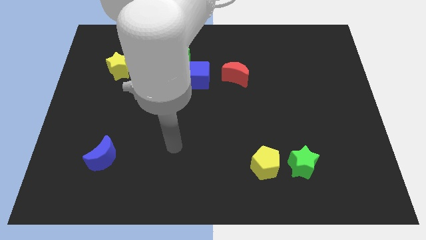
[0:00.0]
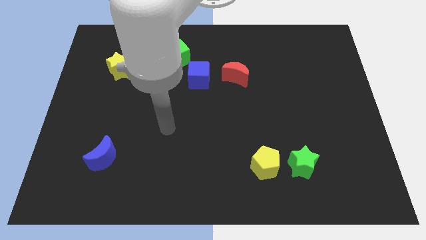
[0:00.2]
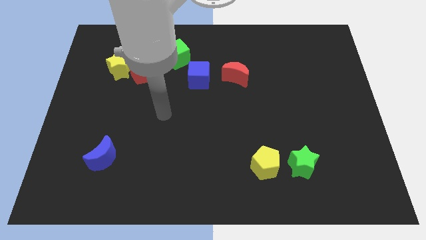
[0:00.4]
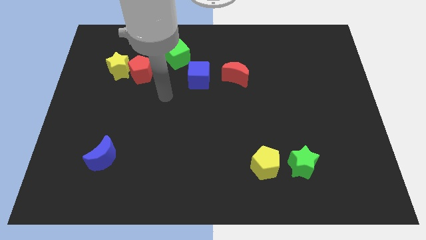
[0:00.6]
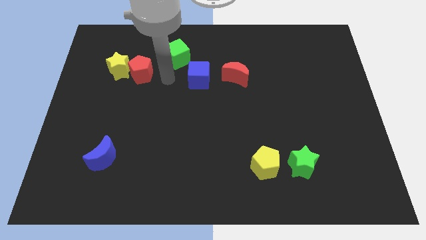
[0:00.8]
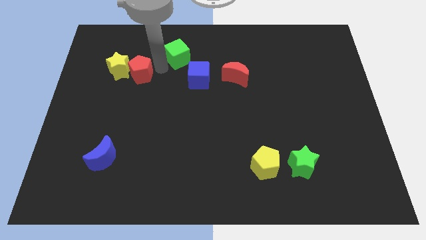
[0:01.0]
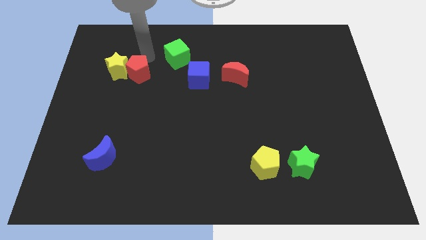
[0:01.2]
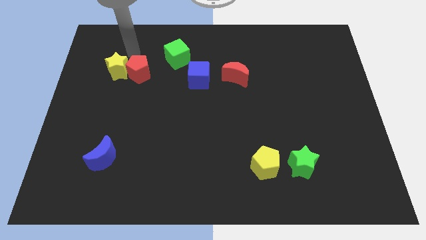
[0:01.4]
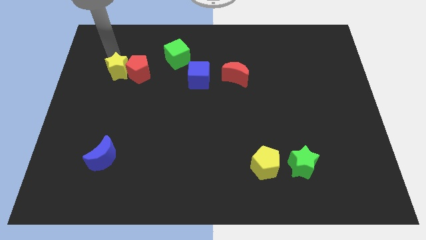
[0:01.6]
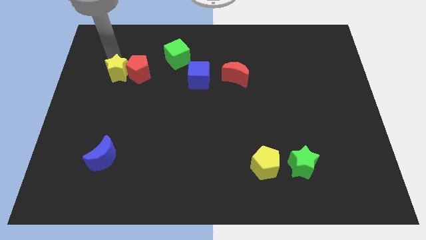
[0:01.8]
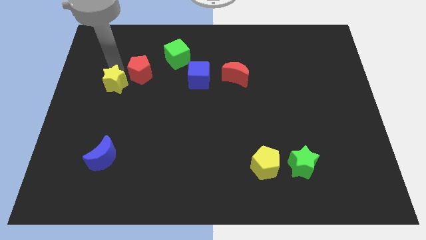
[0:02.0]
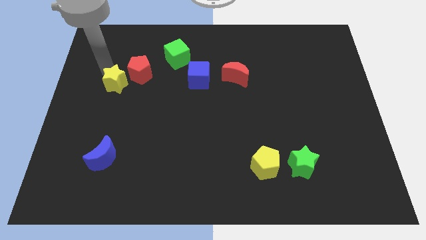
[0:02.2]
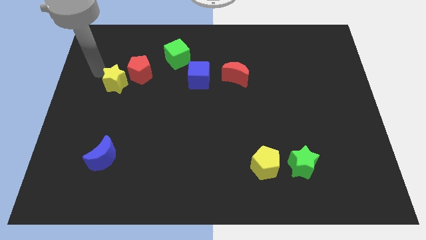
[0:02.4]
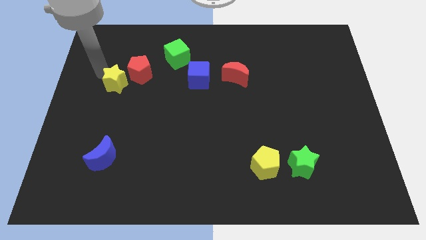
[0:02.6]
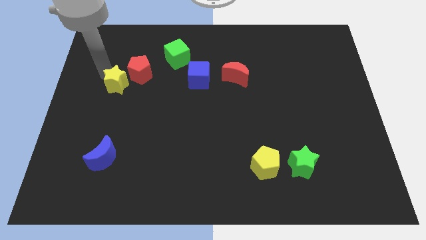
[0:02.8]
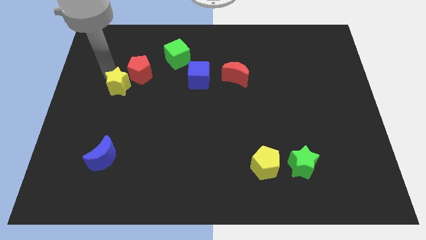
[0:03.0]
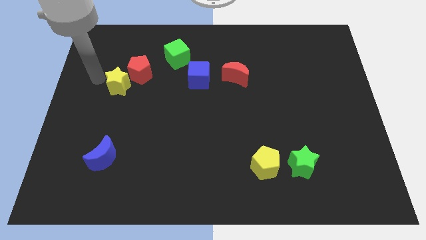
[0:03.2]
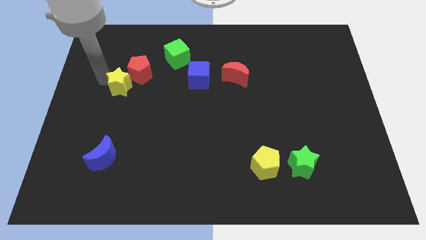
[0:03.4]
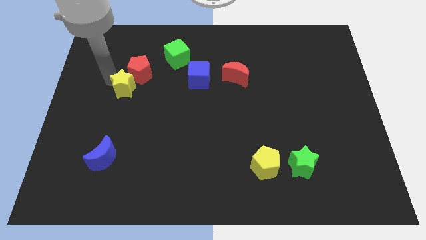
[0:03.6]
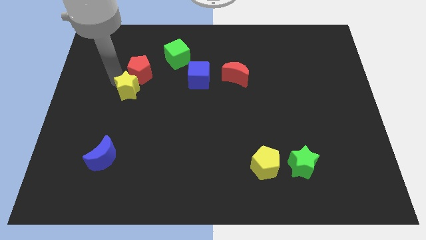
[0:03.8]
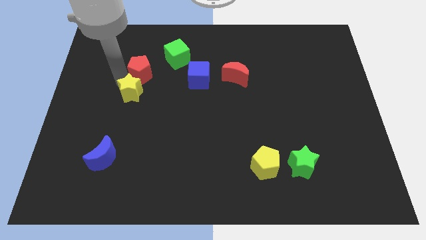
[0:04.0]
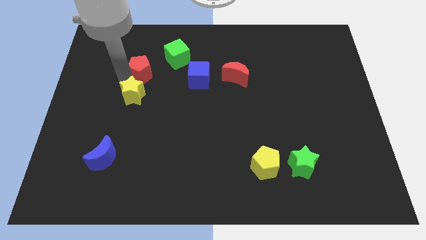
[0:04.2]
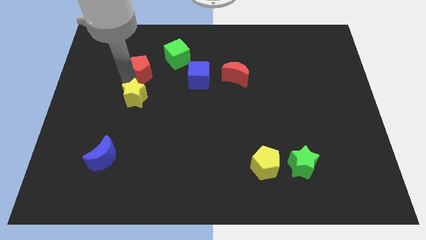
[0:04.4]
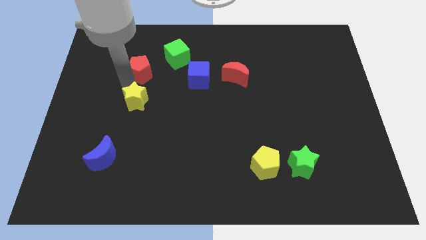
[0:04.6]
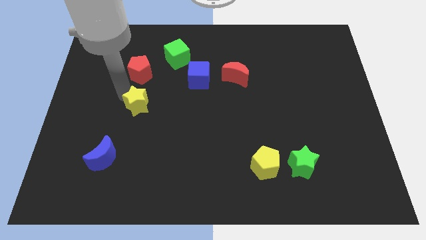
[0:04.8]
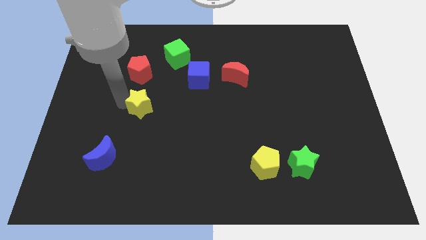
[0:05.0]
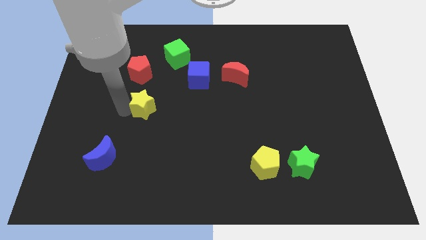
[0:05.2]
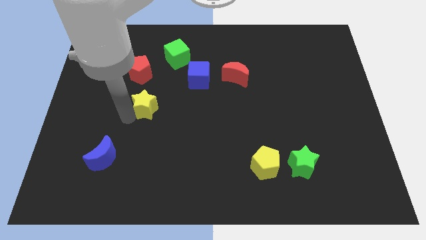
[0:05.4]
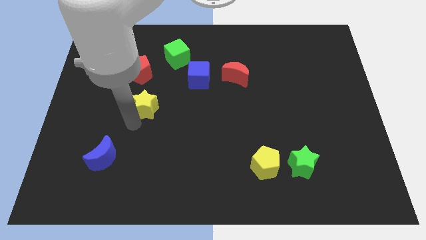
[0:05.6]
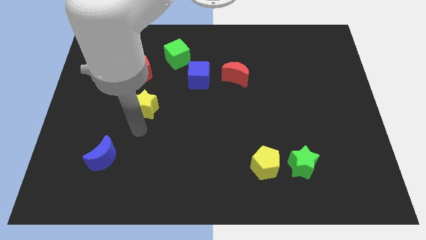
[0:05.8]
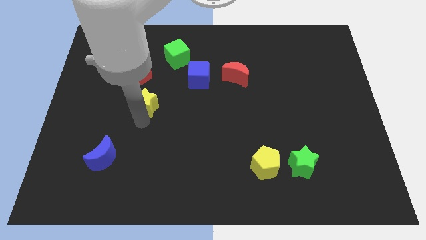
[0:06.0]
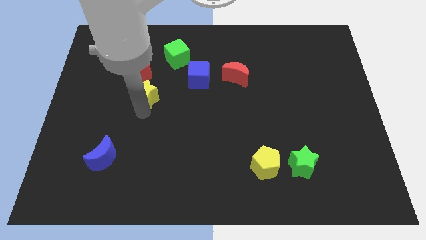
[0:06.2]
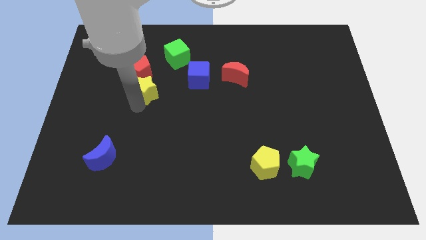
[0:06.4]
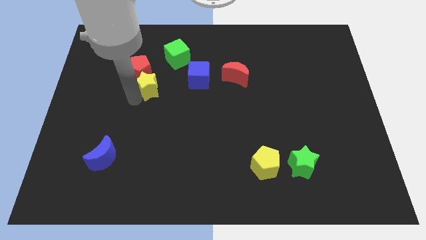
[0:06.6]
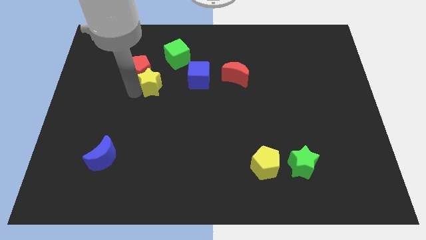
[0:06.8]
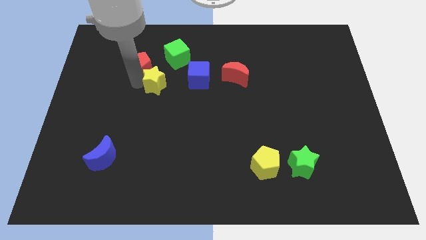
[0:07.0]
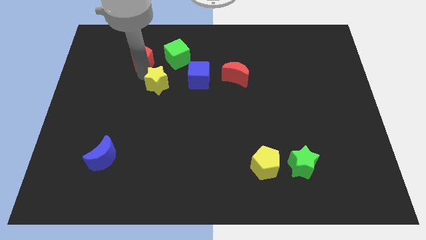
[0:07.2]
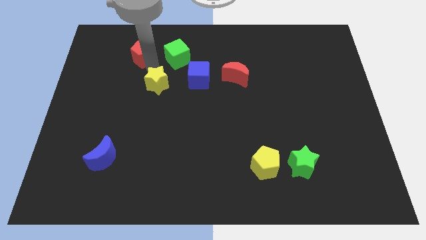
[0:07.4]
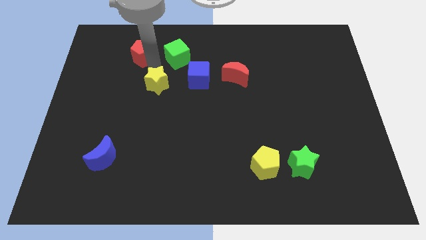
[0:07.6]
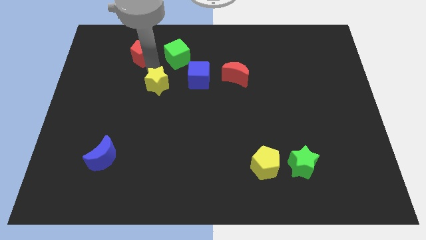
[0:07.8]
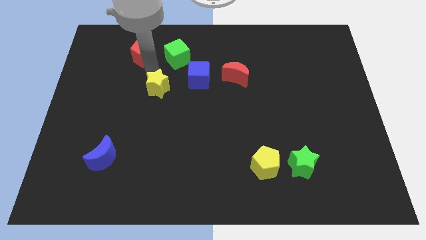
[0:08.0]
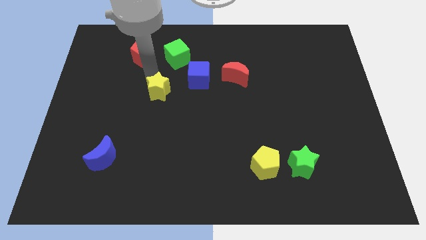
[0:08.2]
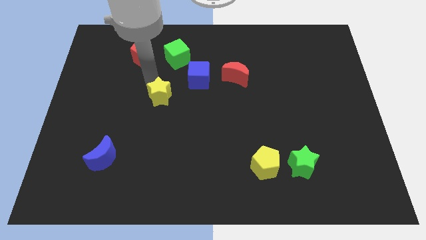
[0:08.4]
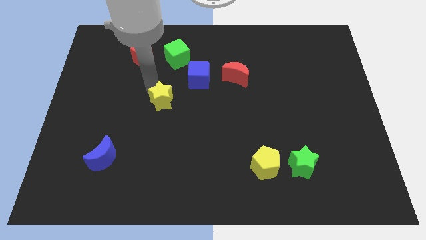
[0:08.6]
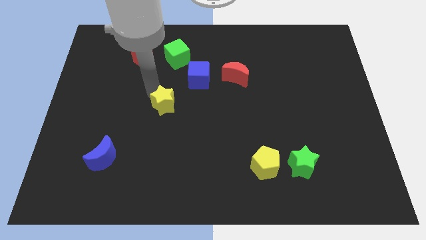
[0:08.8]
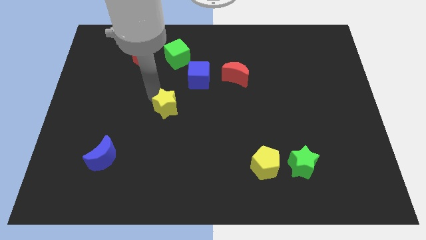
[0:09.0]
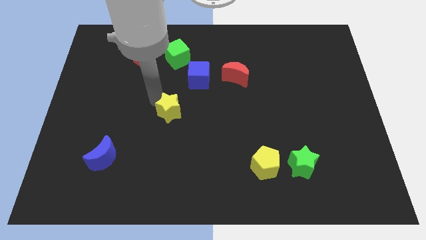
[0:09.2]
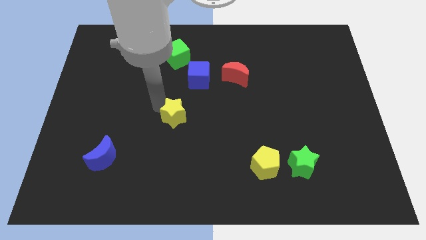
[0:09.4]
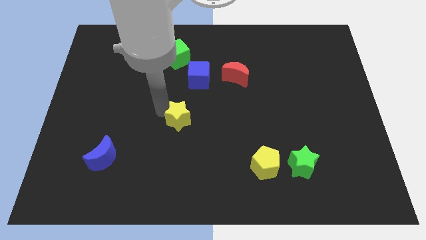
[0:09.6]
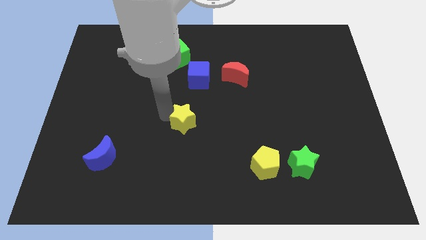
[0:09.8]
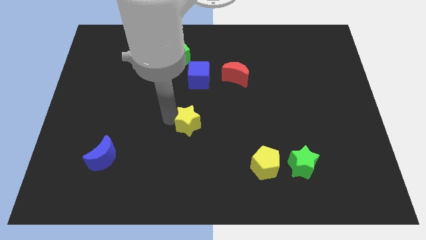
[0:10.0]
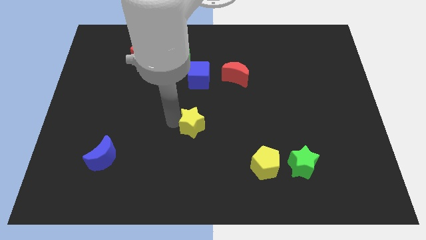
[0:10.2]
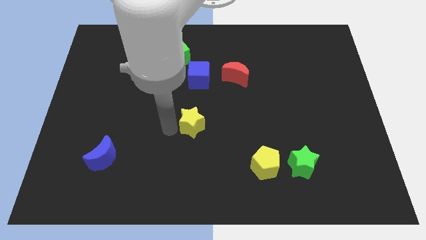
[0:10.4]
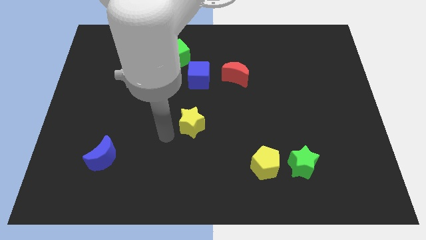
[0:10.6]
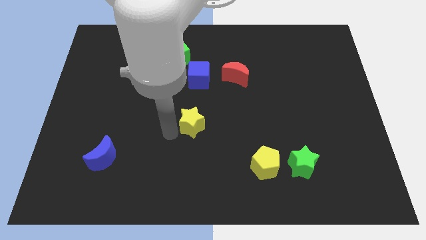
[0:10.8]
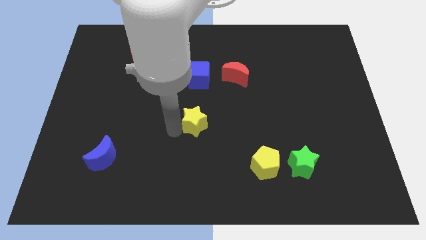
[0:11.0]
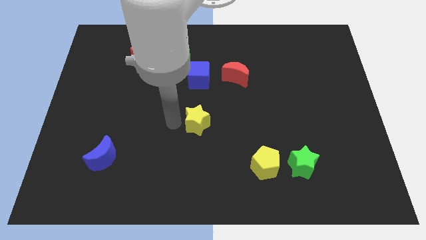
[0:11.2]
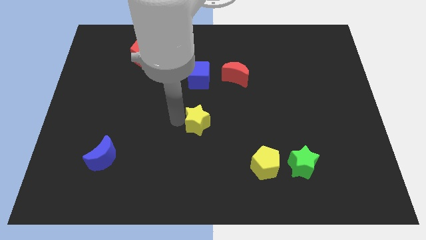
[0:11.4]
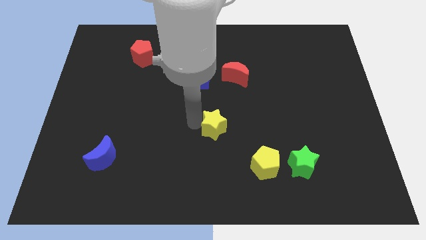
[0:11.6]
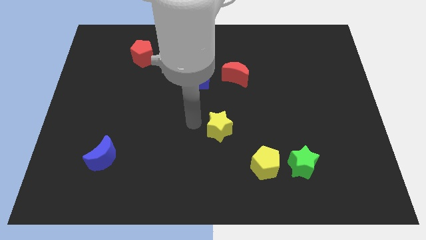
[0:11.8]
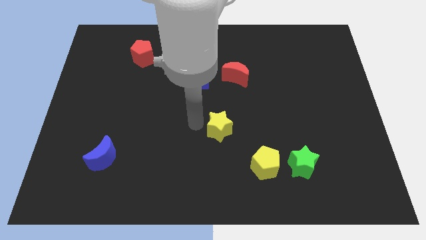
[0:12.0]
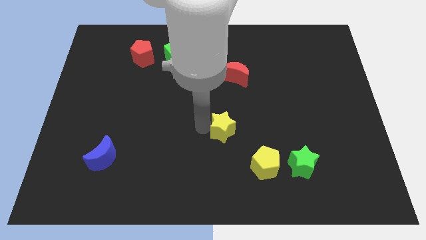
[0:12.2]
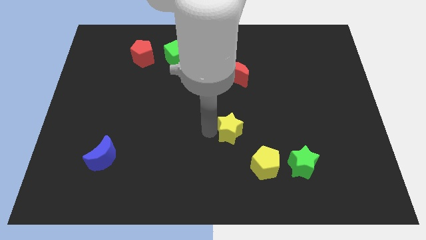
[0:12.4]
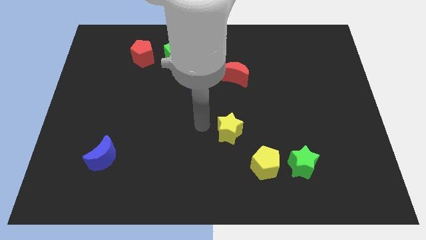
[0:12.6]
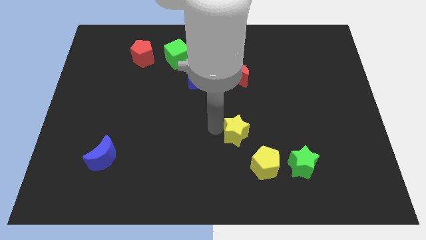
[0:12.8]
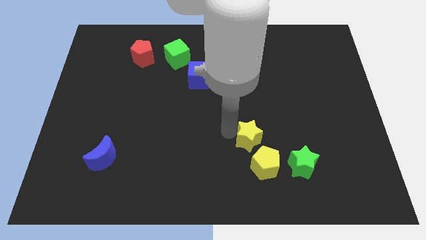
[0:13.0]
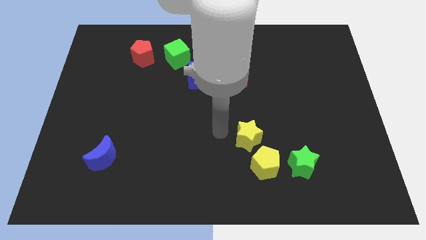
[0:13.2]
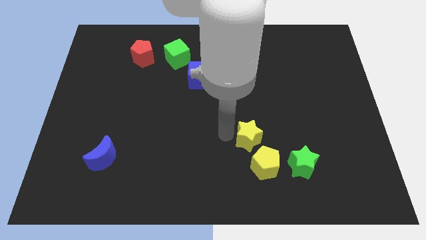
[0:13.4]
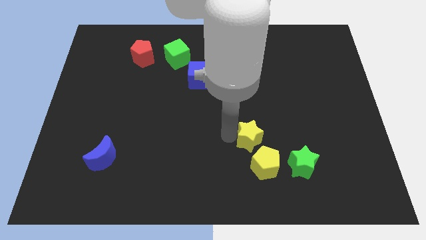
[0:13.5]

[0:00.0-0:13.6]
slide the yellow star to the top left side of the green star

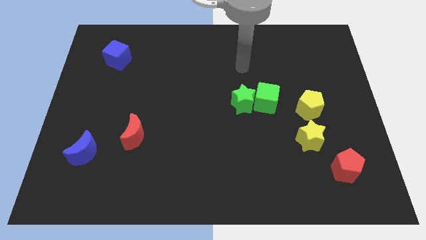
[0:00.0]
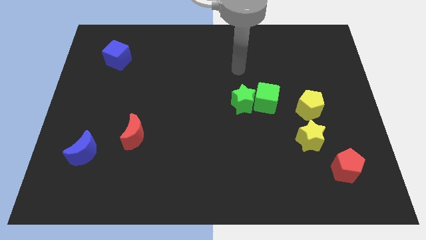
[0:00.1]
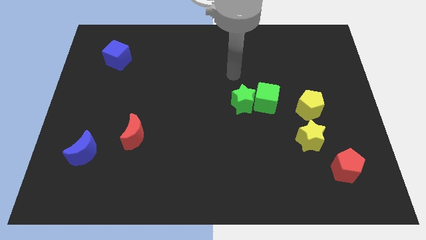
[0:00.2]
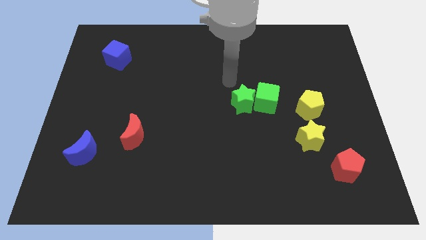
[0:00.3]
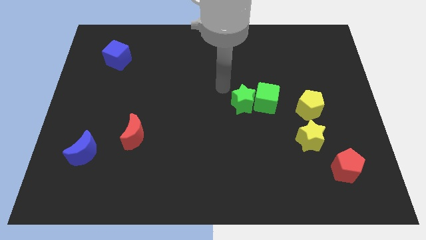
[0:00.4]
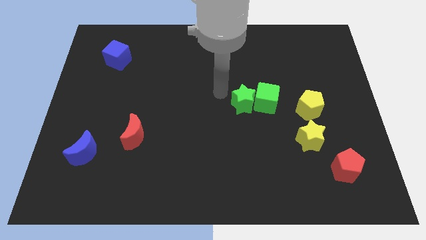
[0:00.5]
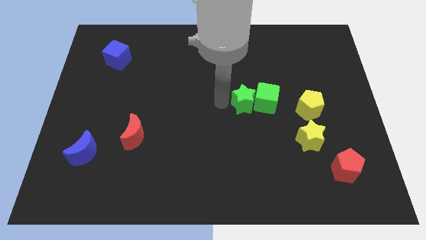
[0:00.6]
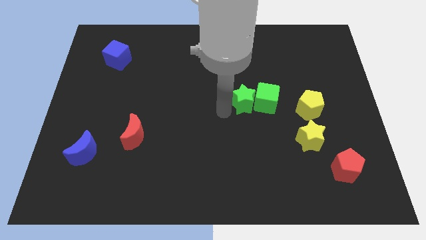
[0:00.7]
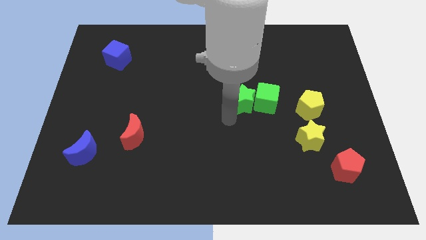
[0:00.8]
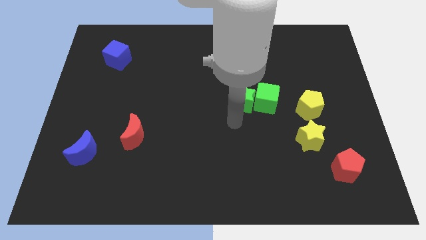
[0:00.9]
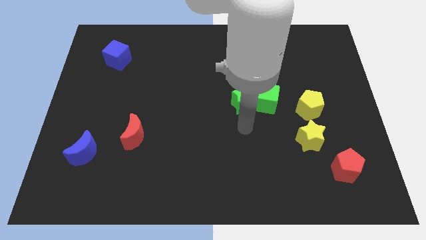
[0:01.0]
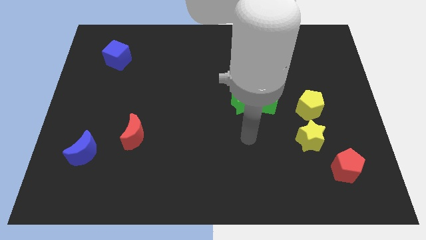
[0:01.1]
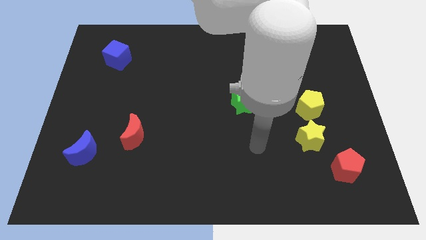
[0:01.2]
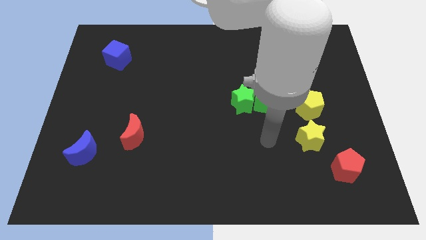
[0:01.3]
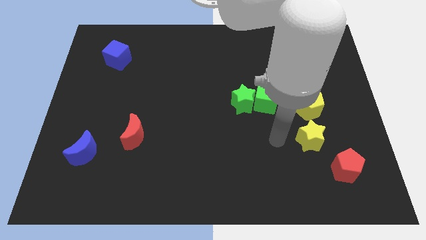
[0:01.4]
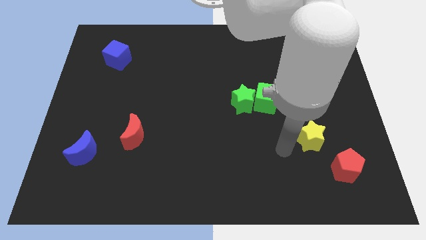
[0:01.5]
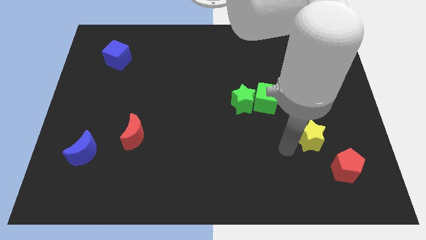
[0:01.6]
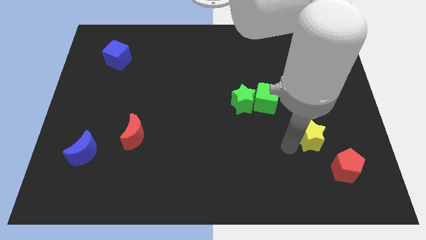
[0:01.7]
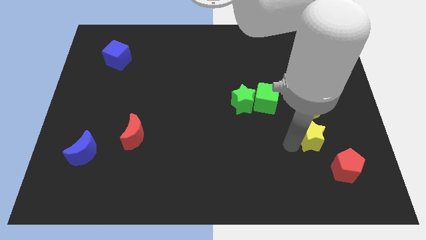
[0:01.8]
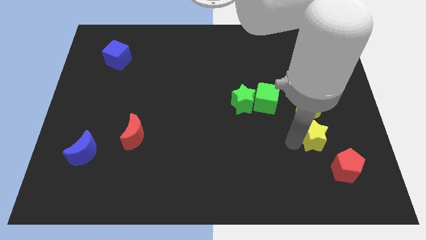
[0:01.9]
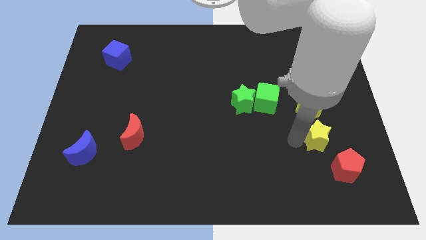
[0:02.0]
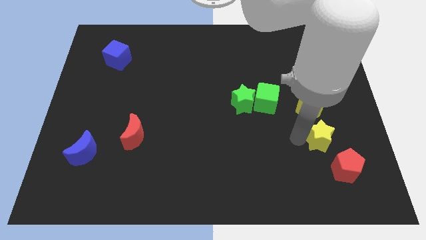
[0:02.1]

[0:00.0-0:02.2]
move the yellow star above the red pentagon
